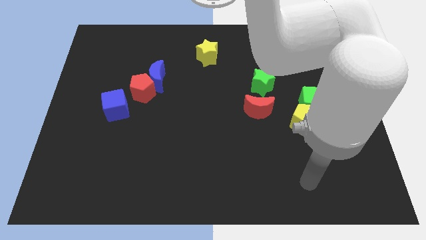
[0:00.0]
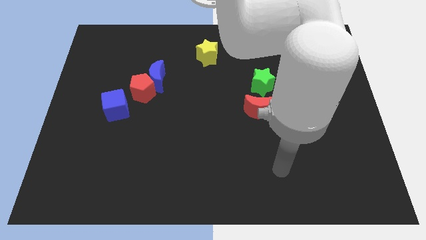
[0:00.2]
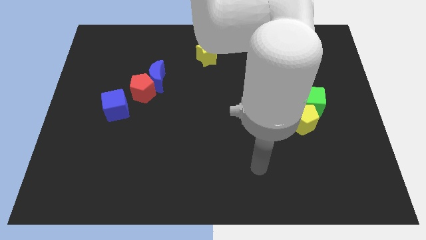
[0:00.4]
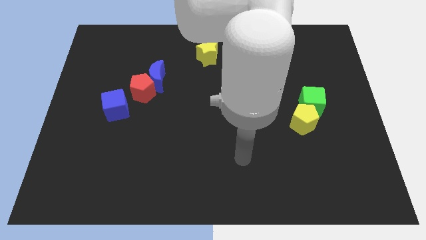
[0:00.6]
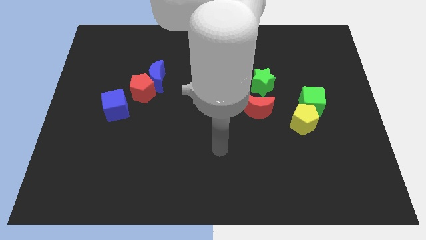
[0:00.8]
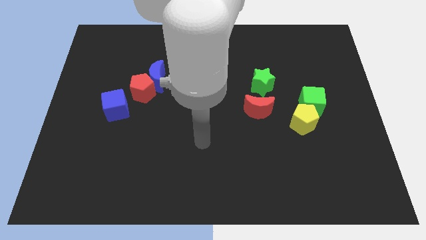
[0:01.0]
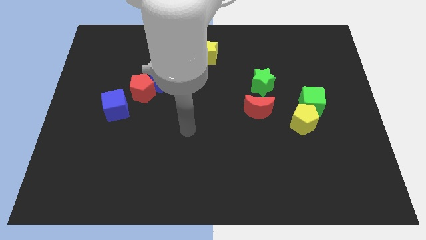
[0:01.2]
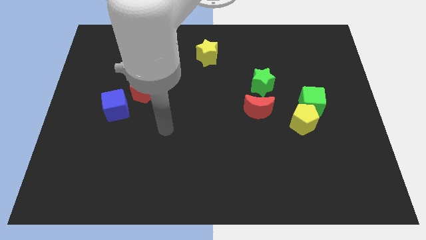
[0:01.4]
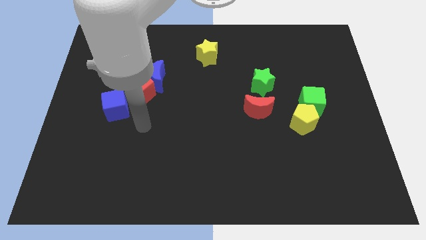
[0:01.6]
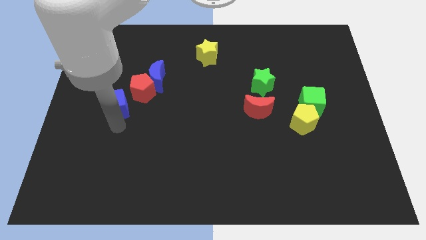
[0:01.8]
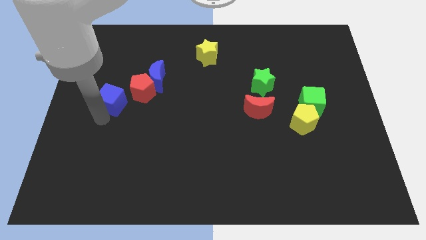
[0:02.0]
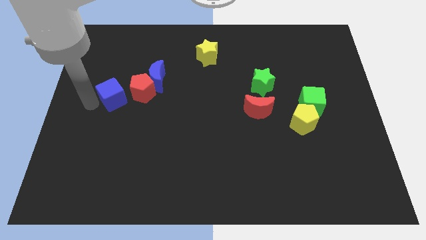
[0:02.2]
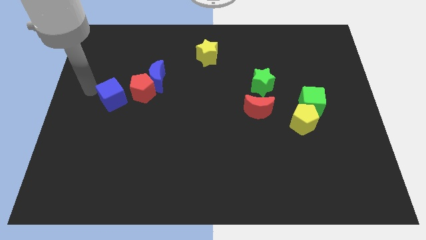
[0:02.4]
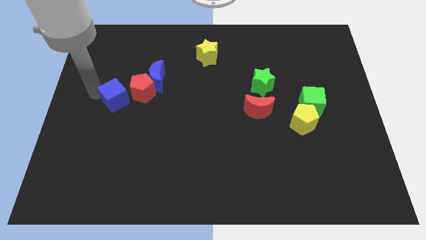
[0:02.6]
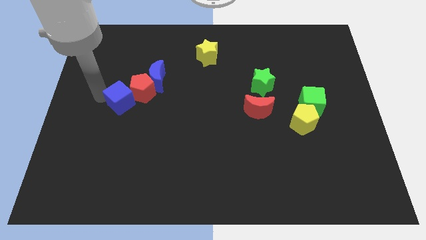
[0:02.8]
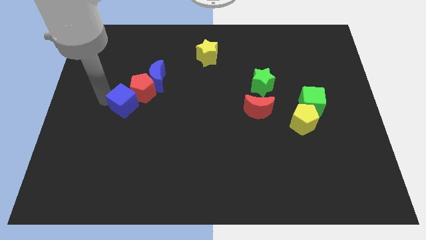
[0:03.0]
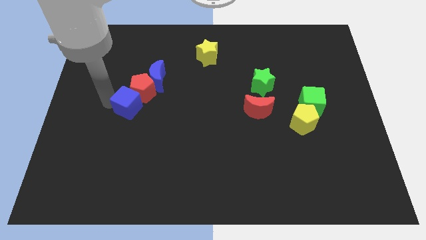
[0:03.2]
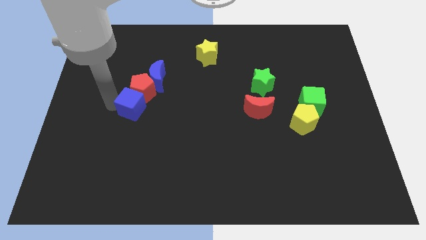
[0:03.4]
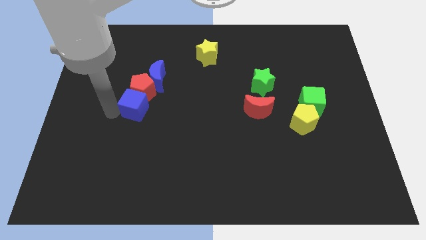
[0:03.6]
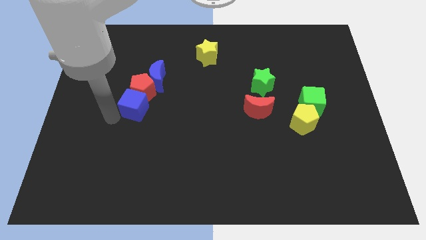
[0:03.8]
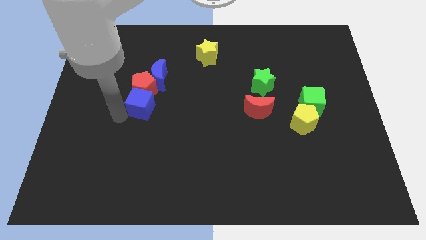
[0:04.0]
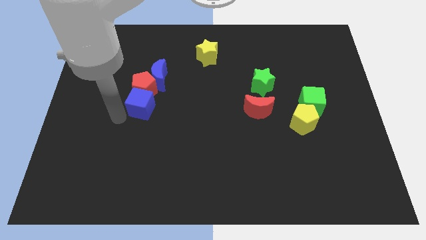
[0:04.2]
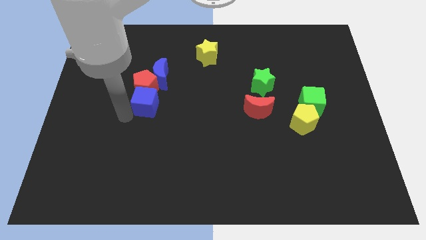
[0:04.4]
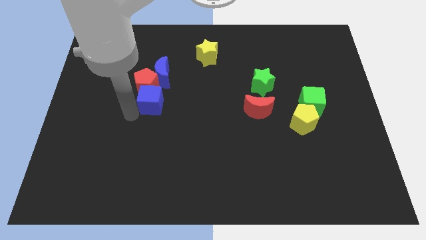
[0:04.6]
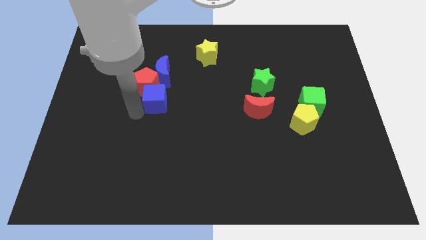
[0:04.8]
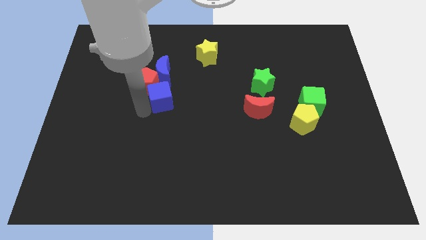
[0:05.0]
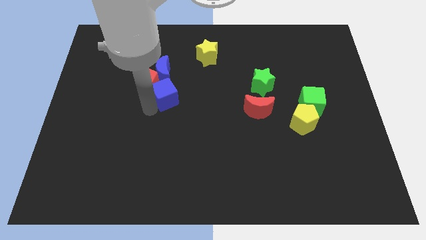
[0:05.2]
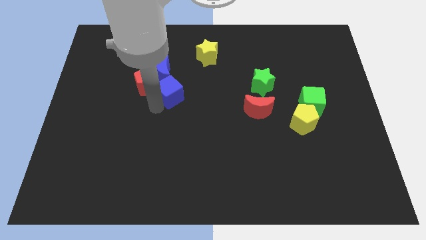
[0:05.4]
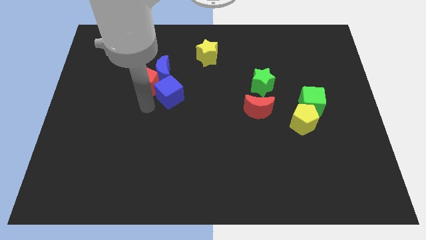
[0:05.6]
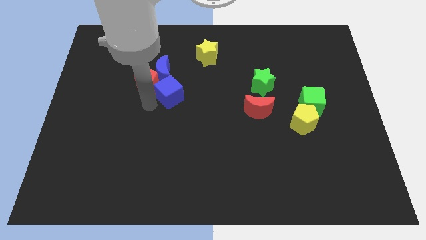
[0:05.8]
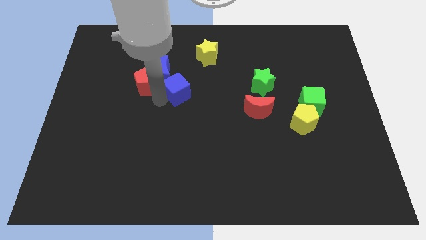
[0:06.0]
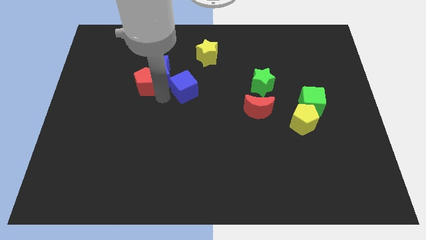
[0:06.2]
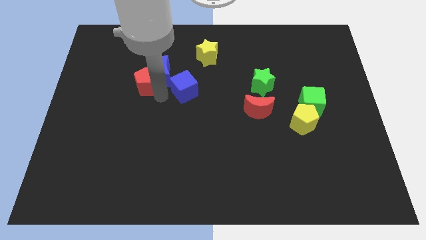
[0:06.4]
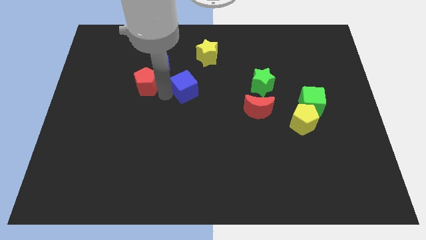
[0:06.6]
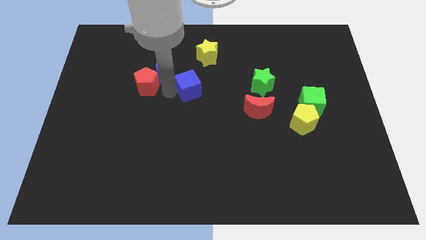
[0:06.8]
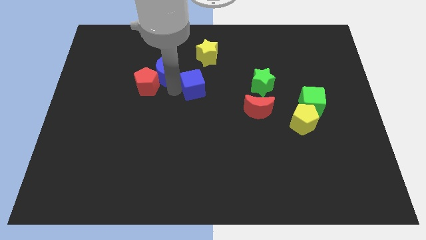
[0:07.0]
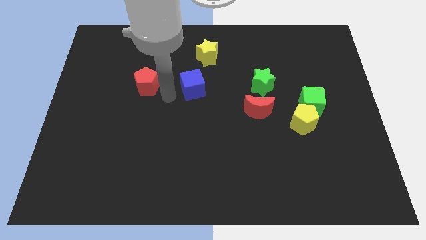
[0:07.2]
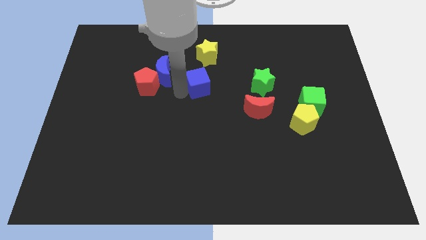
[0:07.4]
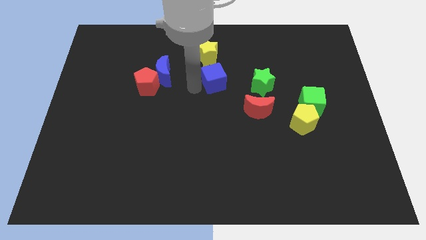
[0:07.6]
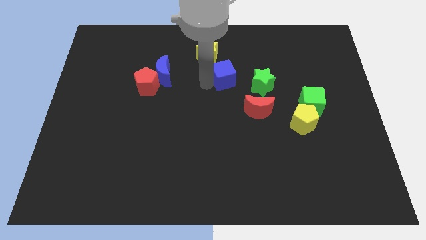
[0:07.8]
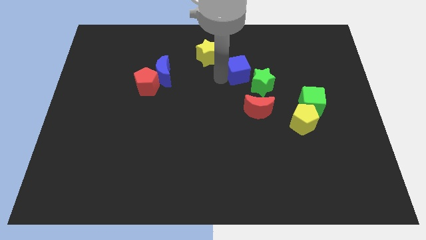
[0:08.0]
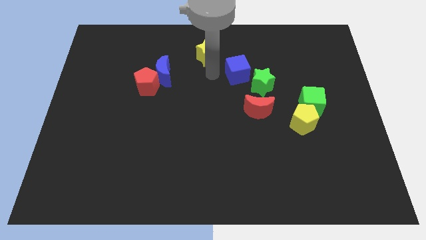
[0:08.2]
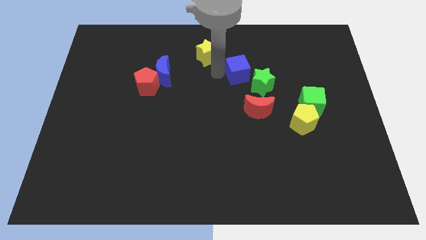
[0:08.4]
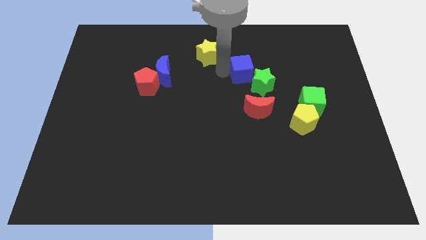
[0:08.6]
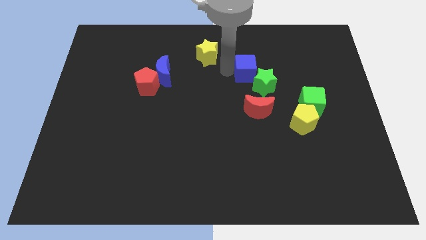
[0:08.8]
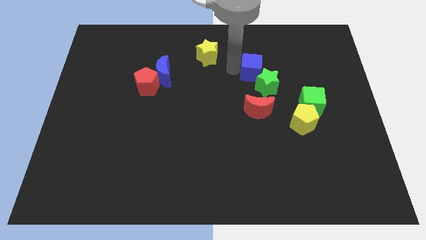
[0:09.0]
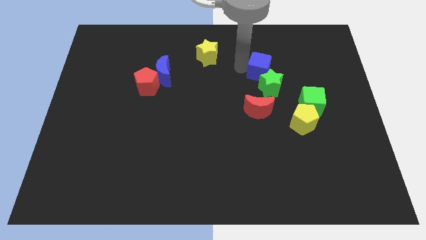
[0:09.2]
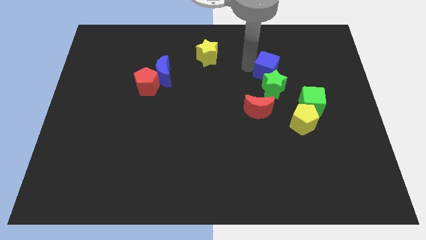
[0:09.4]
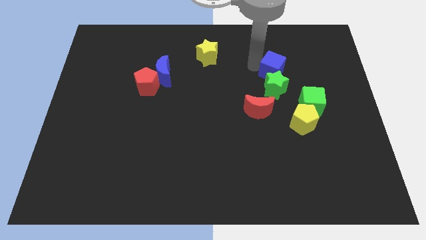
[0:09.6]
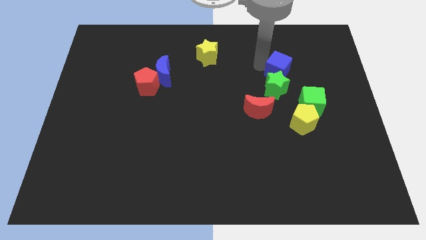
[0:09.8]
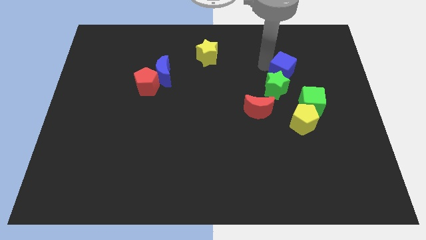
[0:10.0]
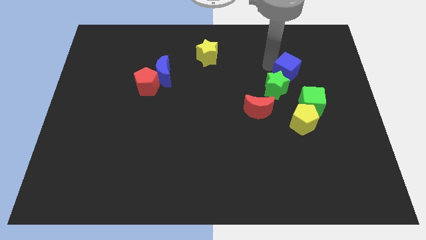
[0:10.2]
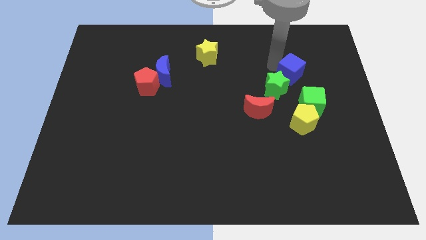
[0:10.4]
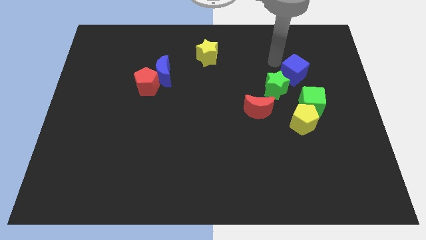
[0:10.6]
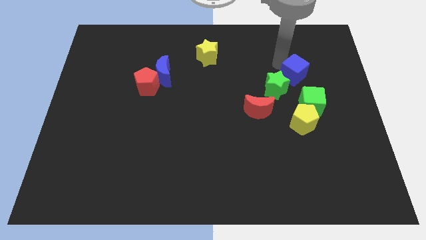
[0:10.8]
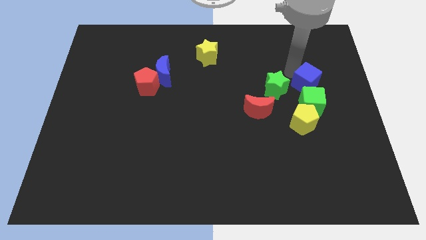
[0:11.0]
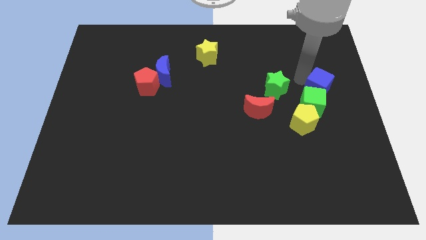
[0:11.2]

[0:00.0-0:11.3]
put the blue cube to the right side of the board
